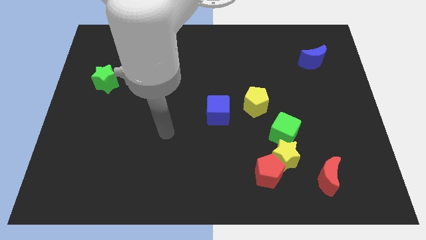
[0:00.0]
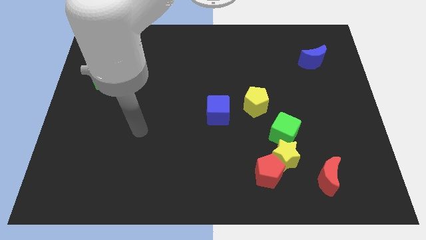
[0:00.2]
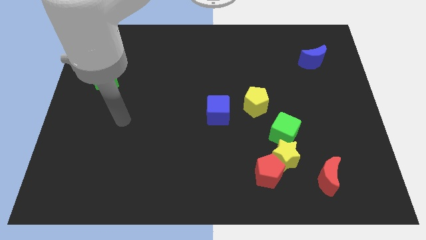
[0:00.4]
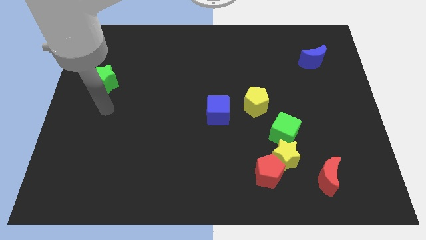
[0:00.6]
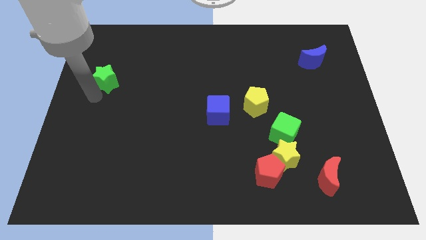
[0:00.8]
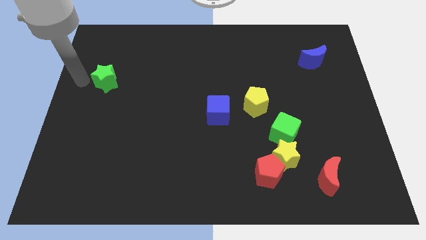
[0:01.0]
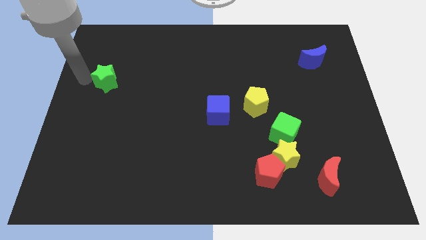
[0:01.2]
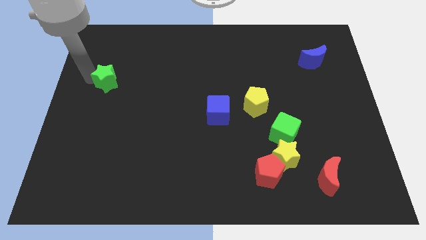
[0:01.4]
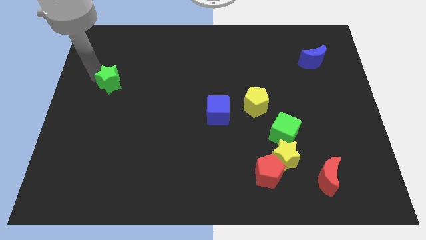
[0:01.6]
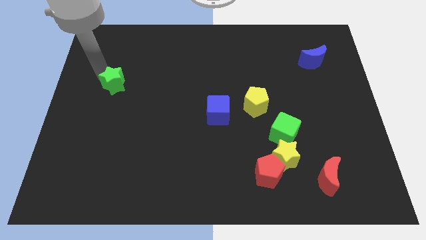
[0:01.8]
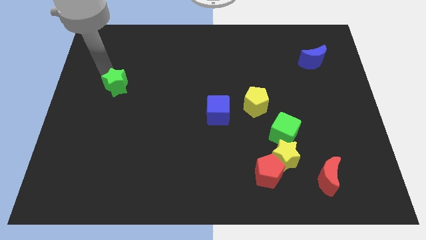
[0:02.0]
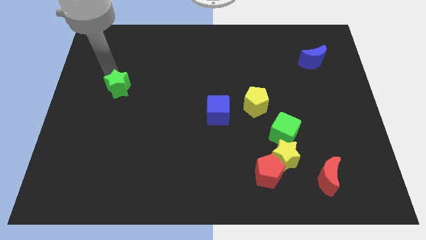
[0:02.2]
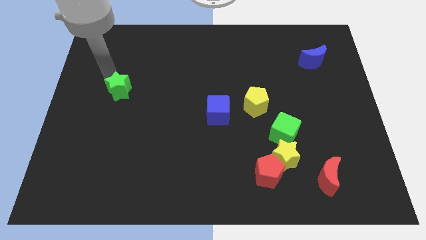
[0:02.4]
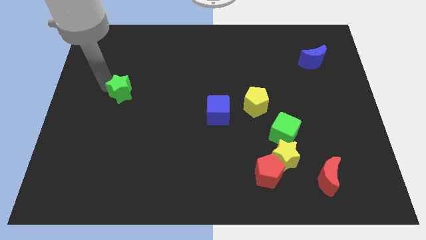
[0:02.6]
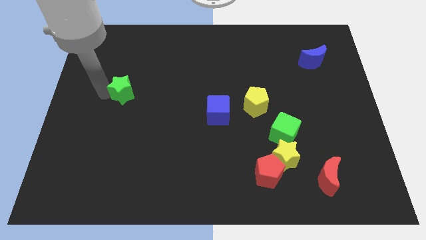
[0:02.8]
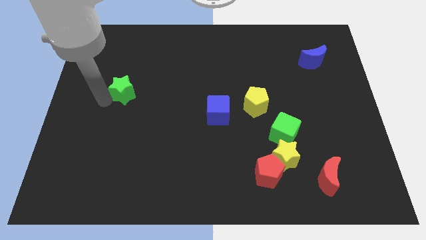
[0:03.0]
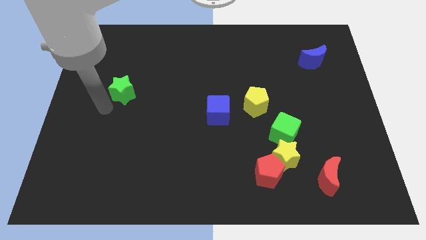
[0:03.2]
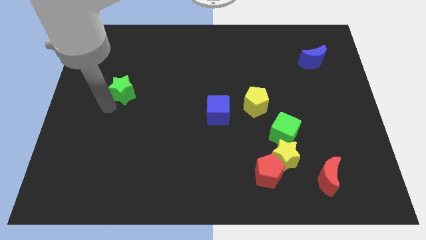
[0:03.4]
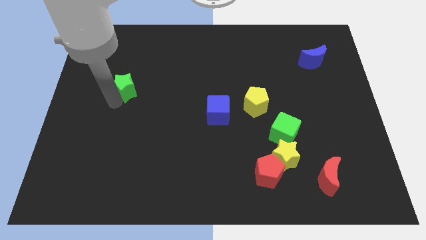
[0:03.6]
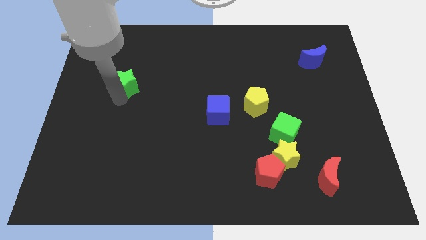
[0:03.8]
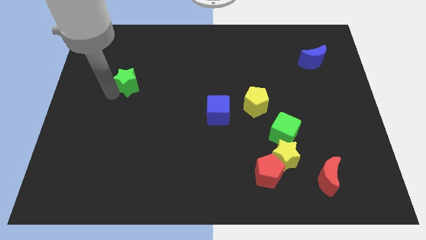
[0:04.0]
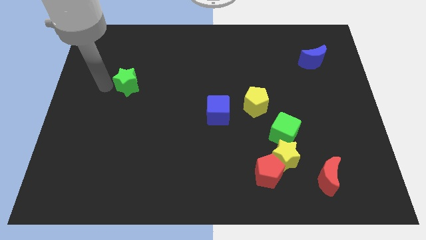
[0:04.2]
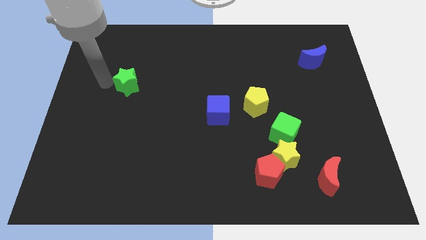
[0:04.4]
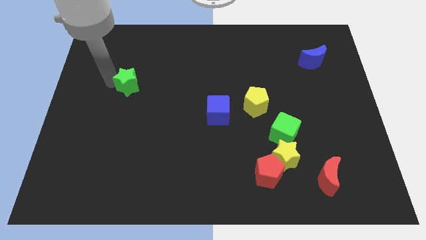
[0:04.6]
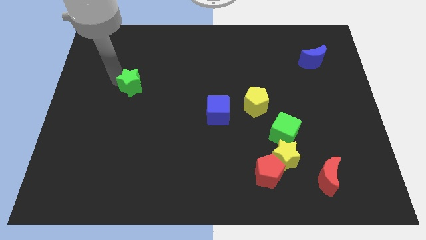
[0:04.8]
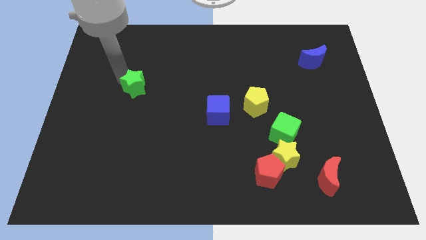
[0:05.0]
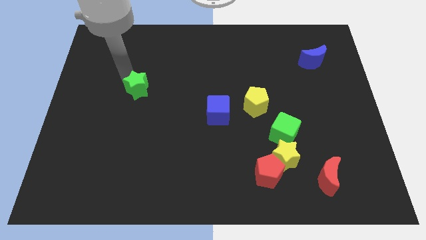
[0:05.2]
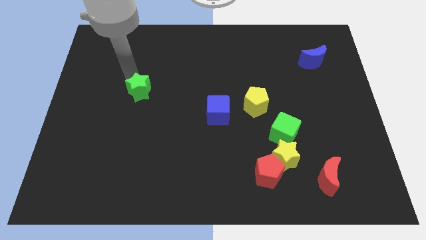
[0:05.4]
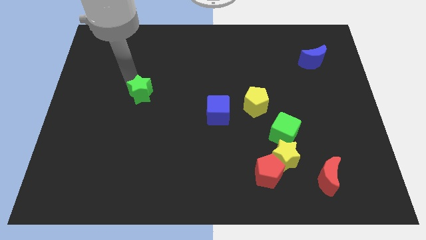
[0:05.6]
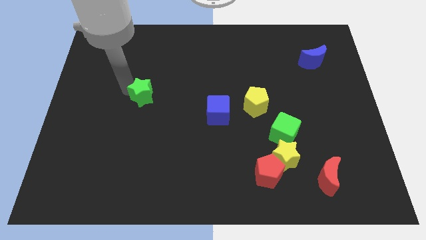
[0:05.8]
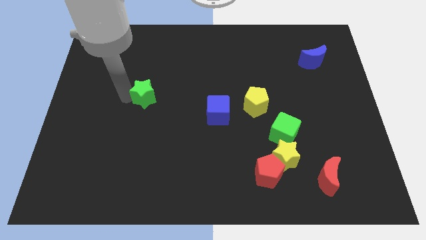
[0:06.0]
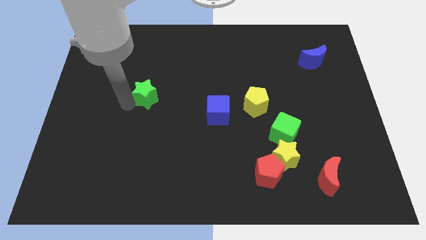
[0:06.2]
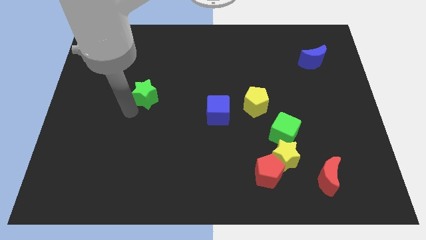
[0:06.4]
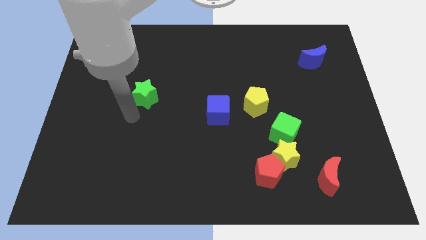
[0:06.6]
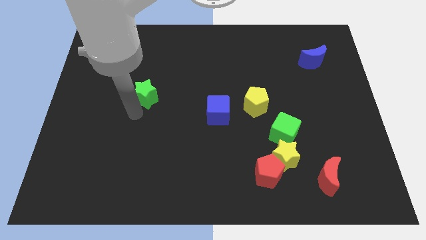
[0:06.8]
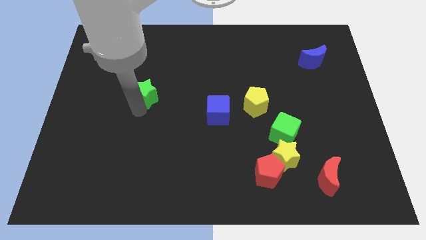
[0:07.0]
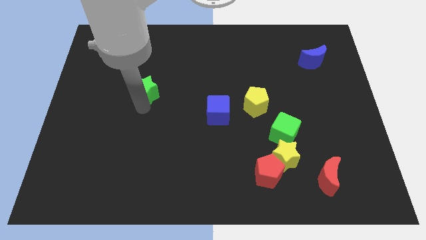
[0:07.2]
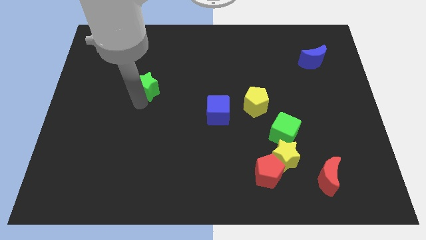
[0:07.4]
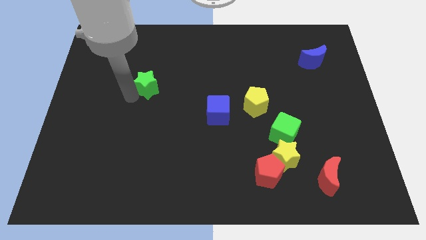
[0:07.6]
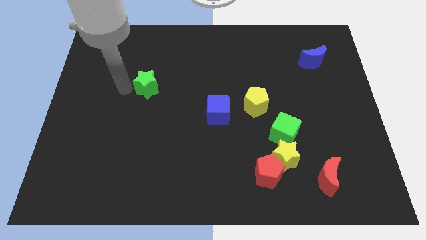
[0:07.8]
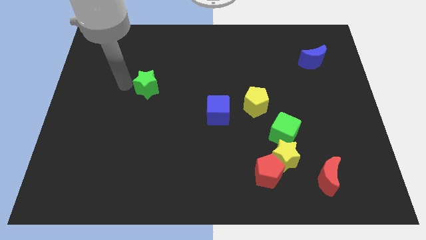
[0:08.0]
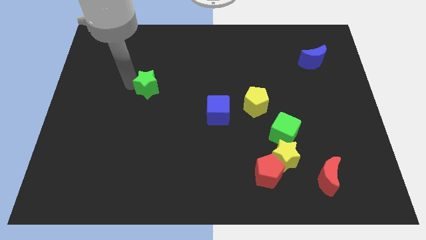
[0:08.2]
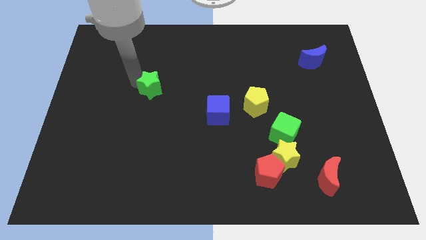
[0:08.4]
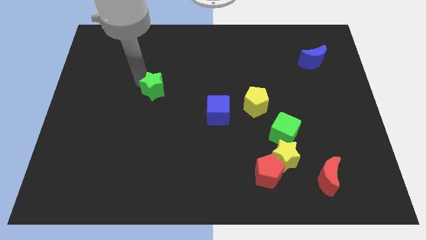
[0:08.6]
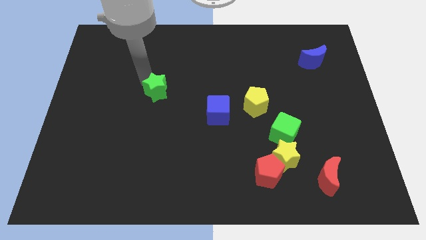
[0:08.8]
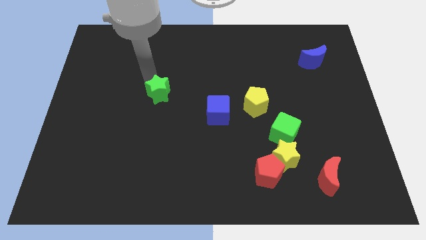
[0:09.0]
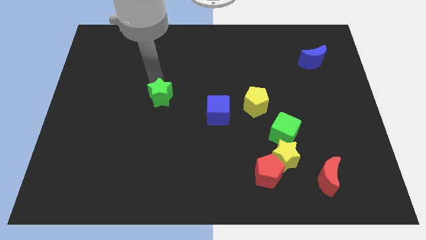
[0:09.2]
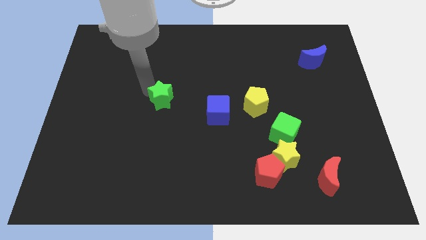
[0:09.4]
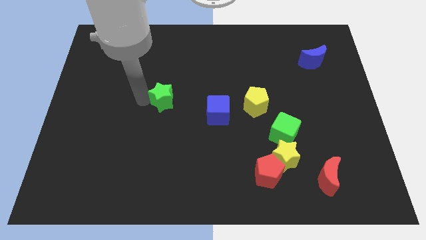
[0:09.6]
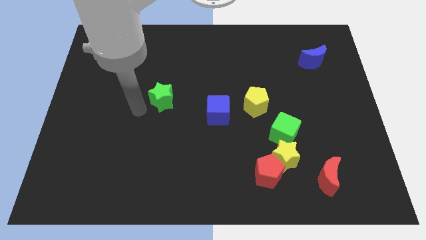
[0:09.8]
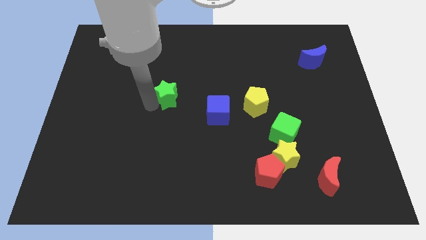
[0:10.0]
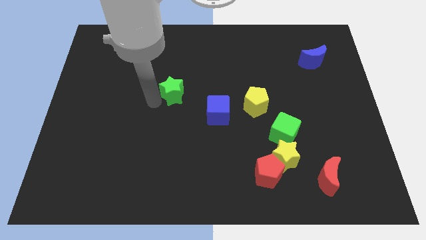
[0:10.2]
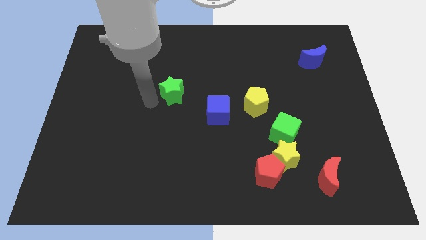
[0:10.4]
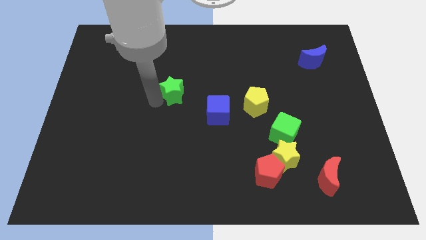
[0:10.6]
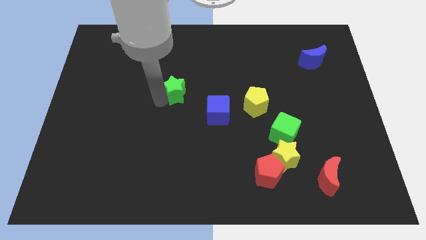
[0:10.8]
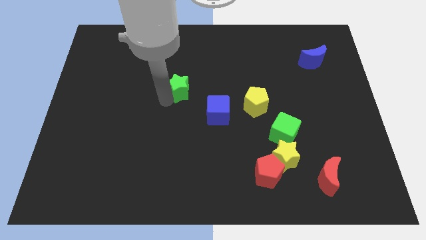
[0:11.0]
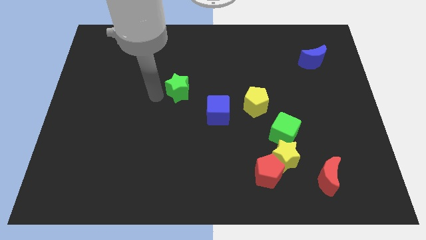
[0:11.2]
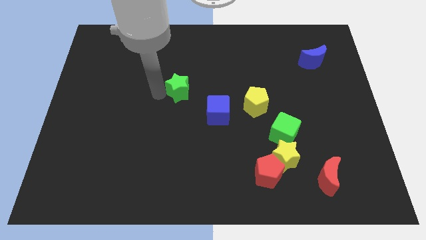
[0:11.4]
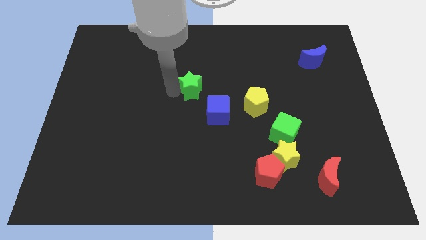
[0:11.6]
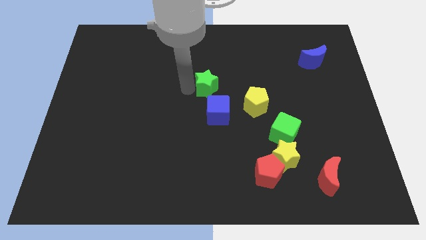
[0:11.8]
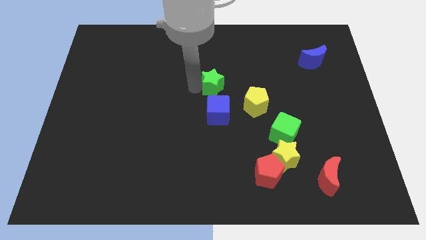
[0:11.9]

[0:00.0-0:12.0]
slide the green star to the top left of the yellow pentagon
